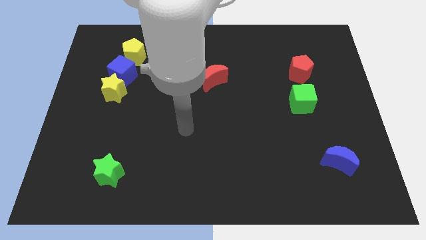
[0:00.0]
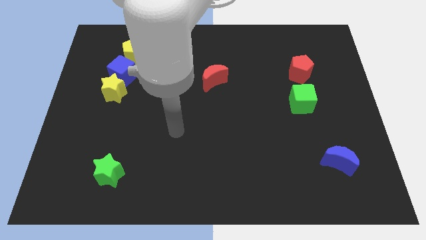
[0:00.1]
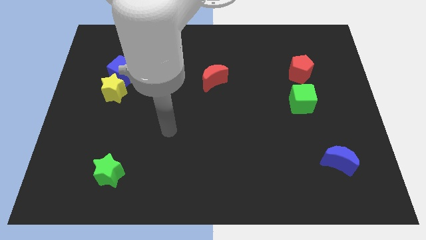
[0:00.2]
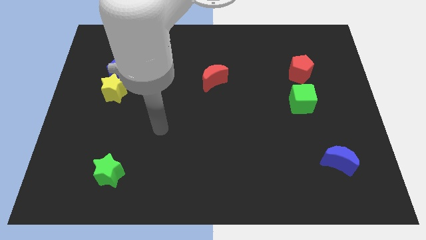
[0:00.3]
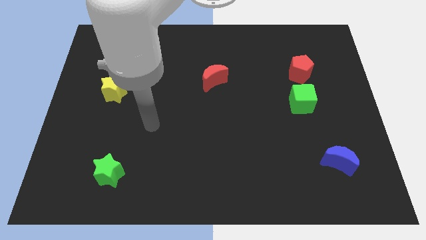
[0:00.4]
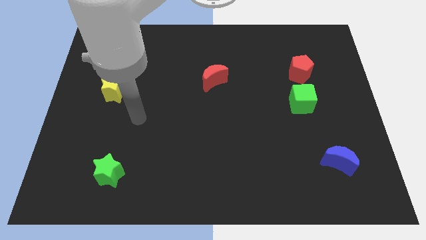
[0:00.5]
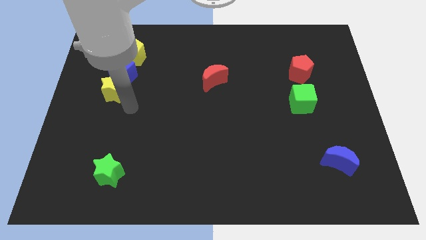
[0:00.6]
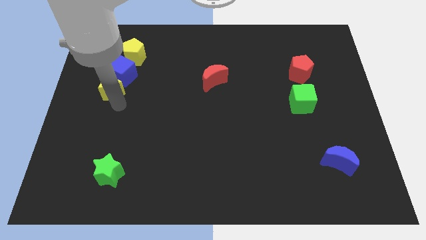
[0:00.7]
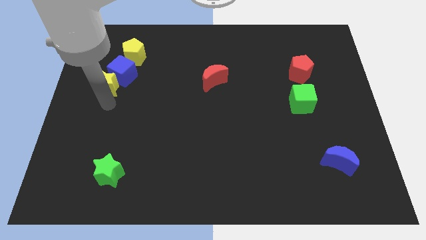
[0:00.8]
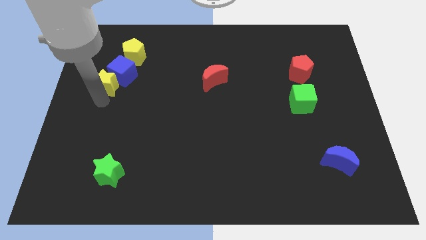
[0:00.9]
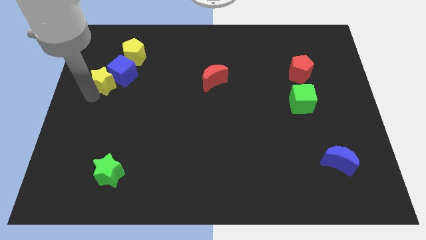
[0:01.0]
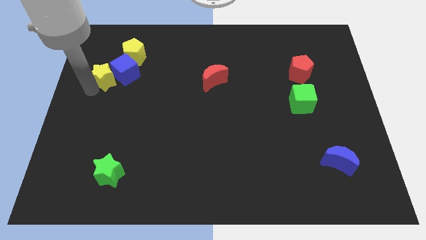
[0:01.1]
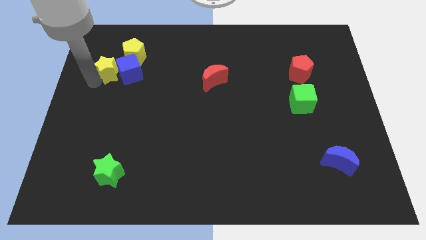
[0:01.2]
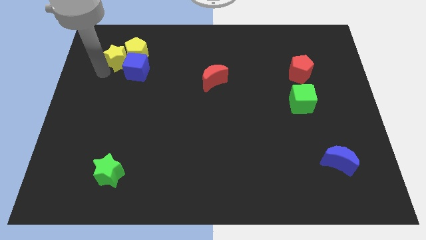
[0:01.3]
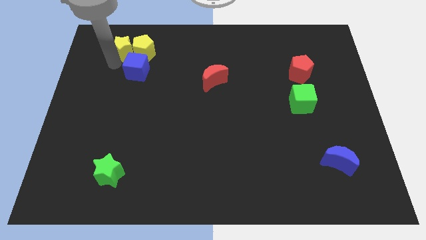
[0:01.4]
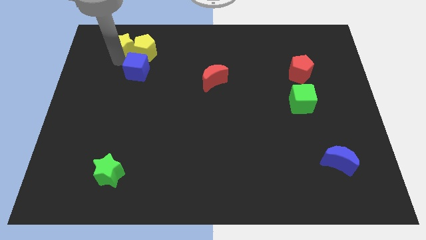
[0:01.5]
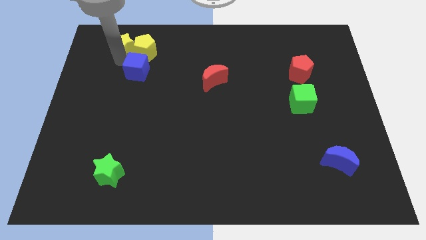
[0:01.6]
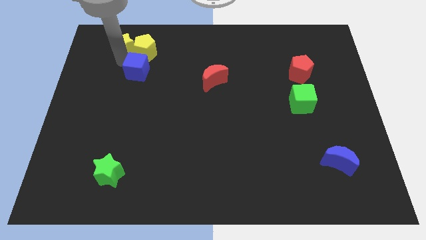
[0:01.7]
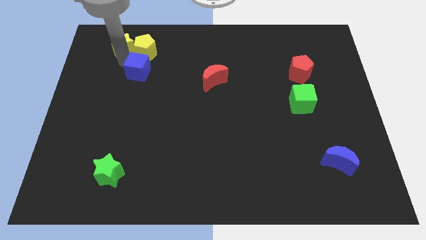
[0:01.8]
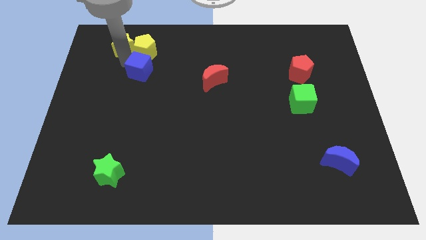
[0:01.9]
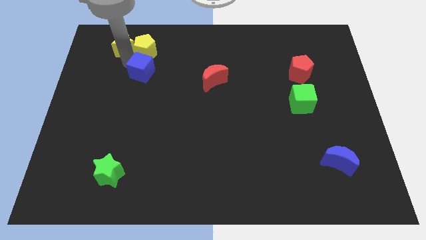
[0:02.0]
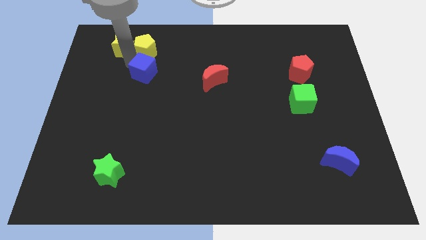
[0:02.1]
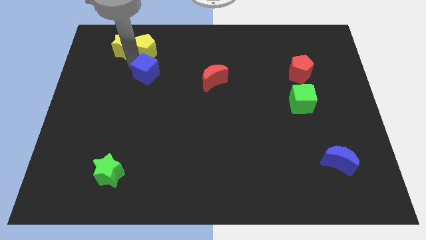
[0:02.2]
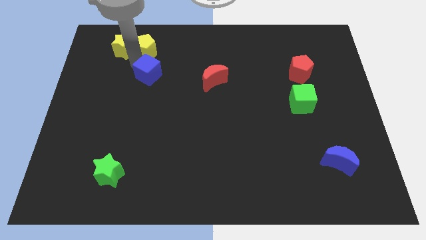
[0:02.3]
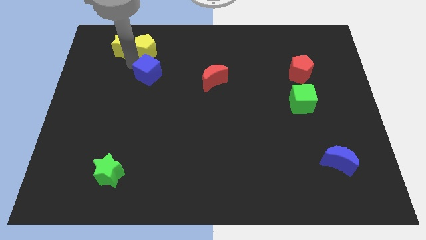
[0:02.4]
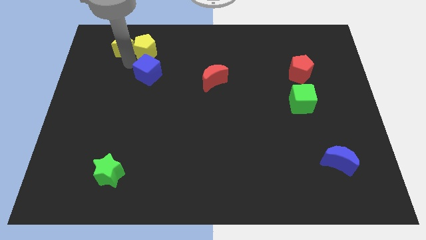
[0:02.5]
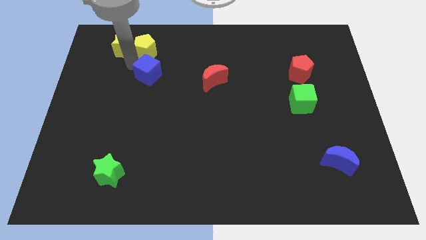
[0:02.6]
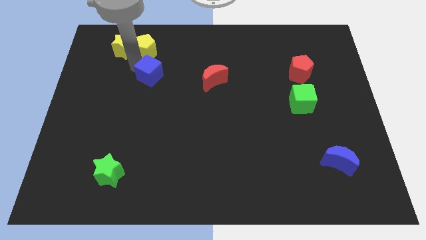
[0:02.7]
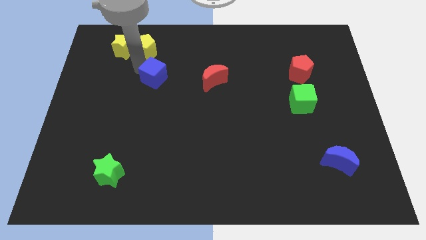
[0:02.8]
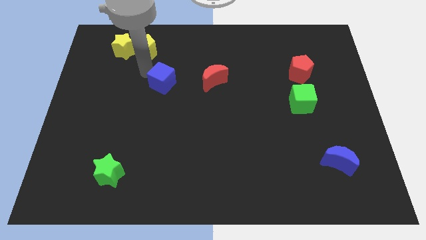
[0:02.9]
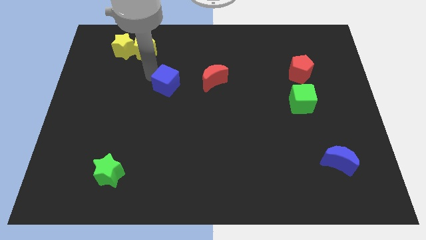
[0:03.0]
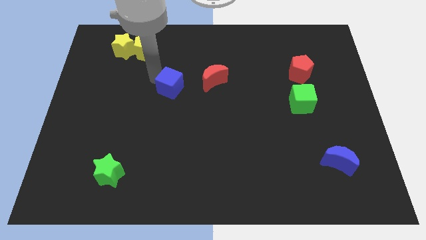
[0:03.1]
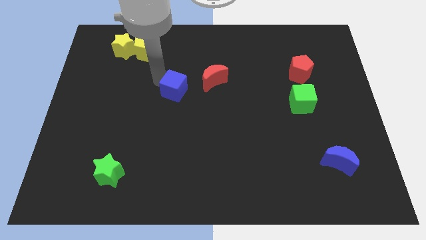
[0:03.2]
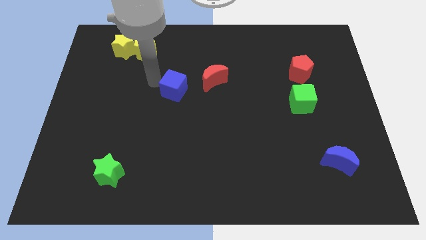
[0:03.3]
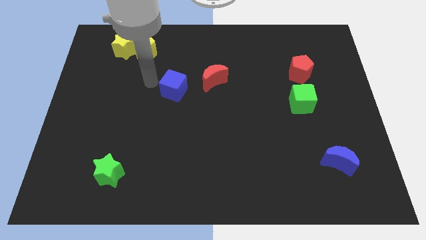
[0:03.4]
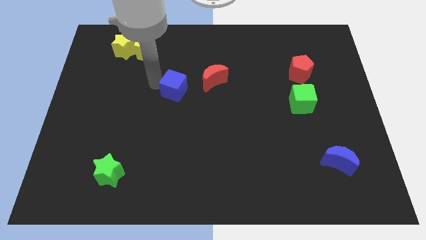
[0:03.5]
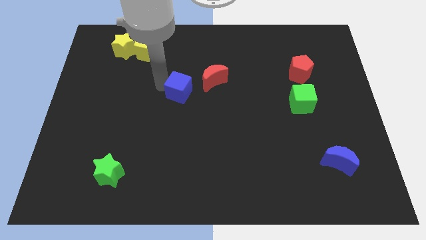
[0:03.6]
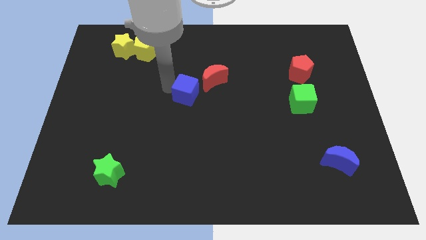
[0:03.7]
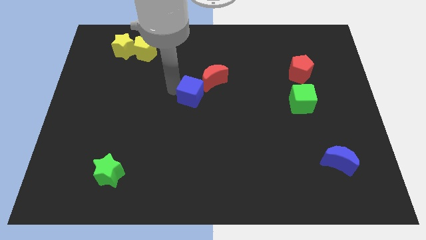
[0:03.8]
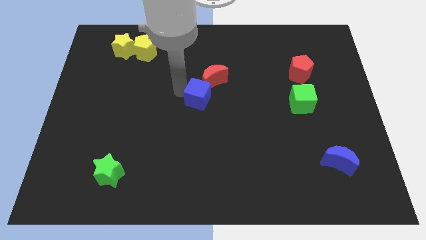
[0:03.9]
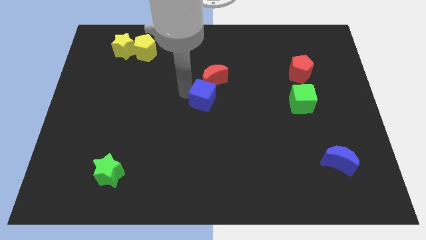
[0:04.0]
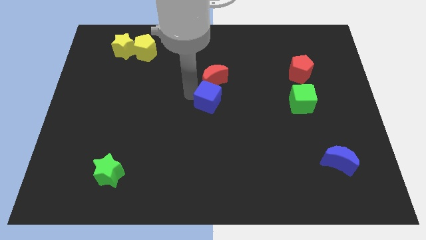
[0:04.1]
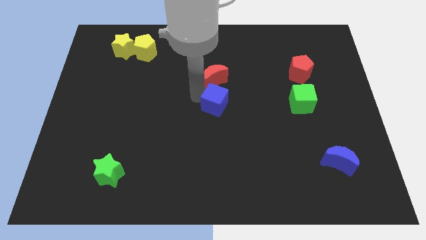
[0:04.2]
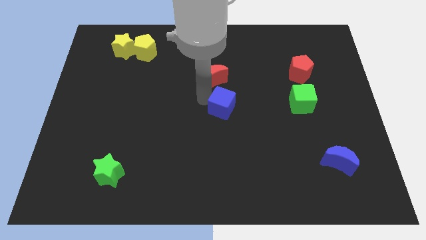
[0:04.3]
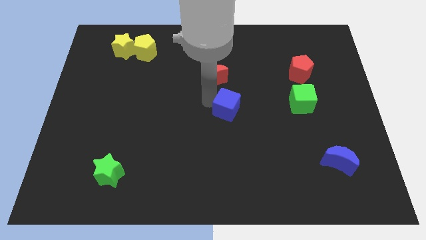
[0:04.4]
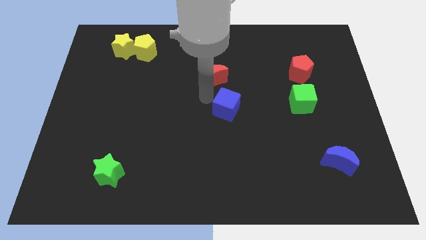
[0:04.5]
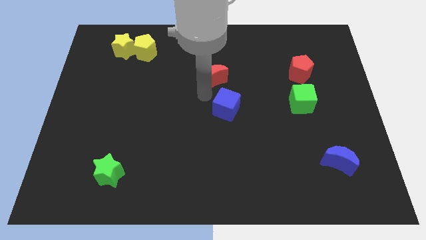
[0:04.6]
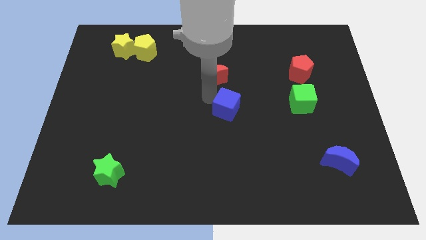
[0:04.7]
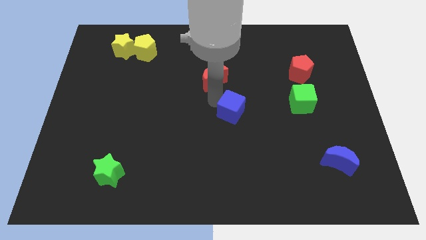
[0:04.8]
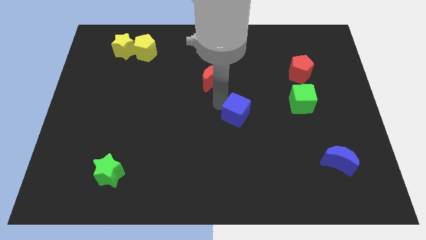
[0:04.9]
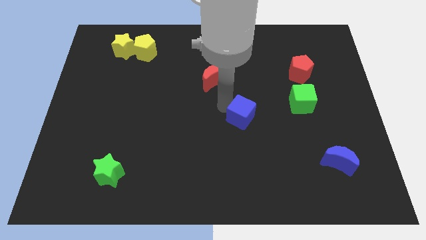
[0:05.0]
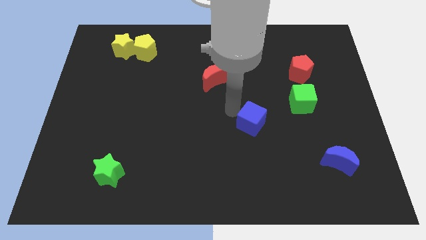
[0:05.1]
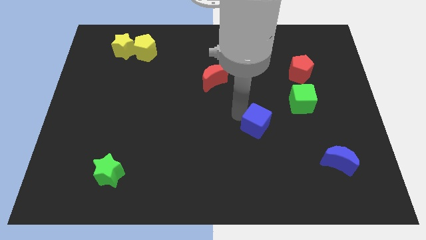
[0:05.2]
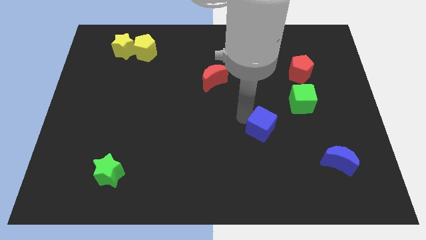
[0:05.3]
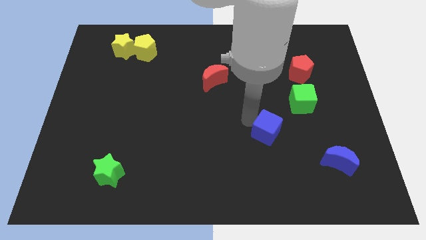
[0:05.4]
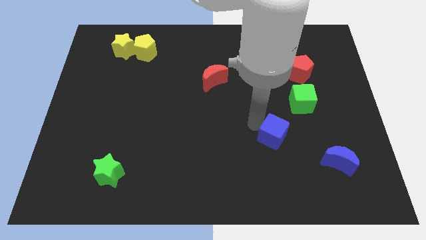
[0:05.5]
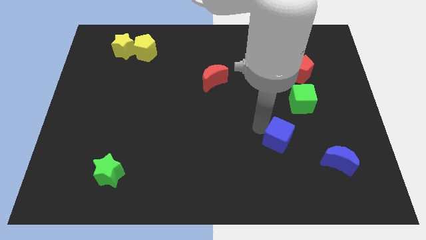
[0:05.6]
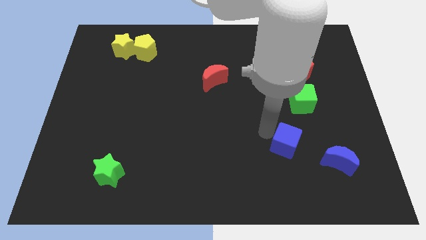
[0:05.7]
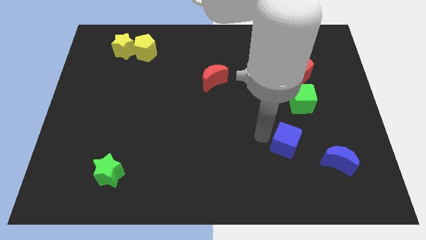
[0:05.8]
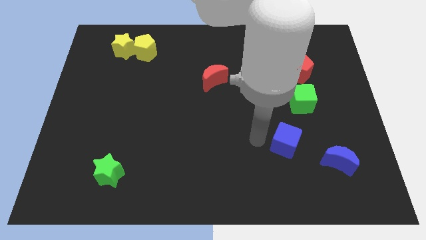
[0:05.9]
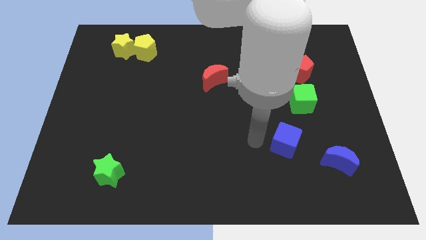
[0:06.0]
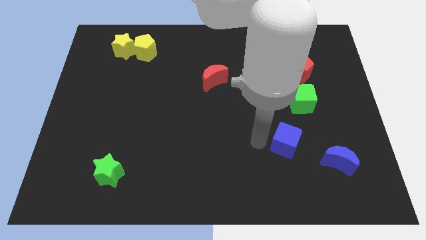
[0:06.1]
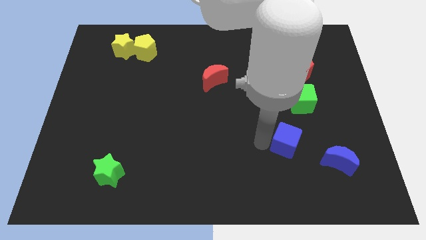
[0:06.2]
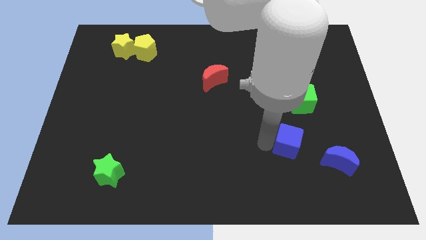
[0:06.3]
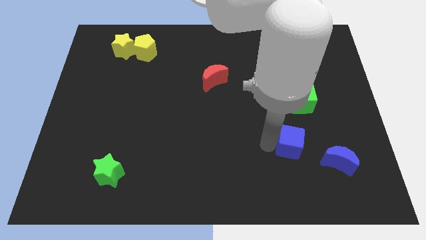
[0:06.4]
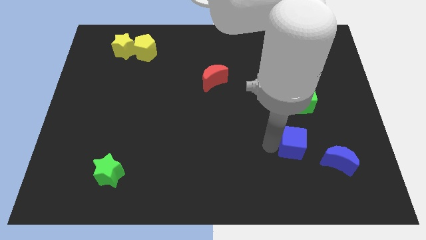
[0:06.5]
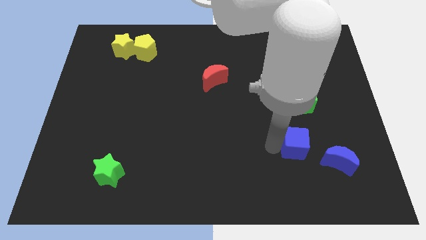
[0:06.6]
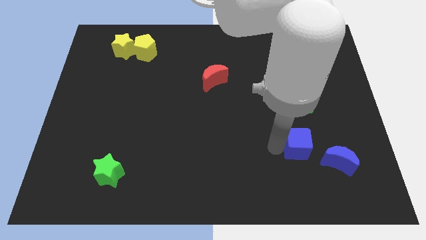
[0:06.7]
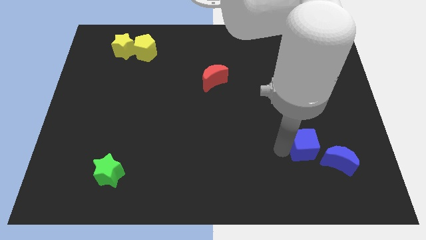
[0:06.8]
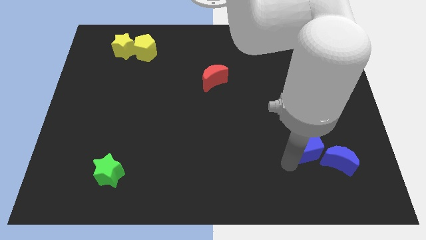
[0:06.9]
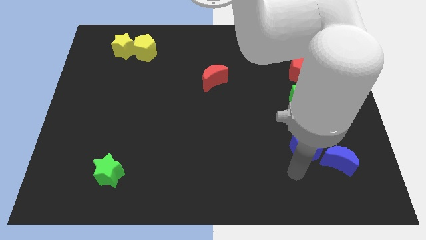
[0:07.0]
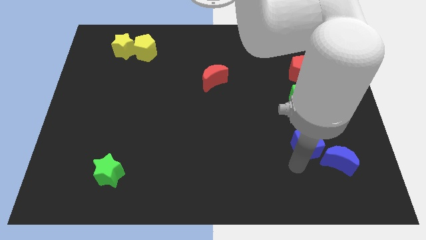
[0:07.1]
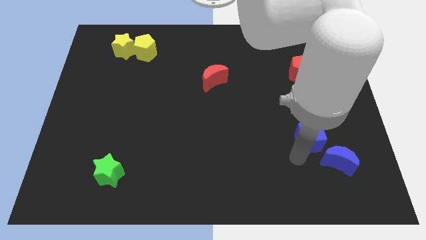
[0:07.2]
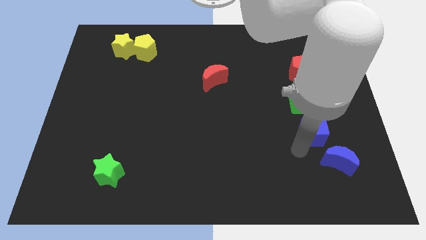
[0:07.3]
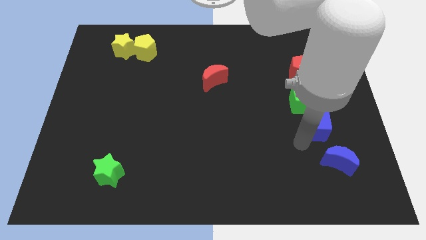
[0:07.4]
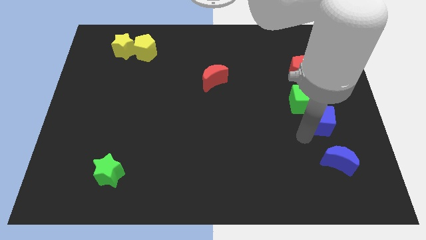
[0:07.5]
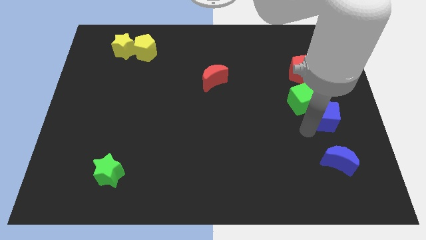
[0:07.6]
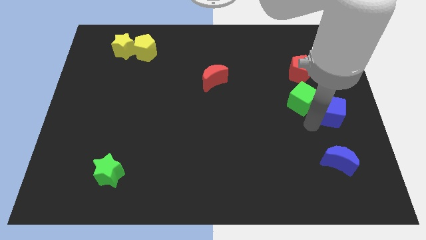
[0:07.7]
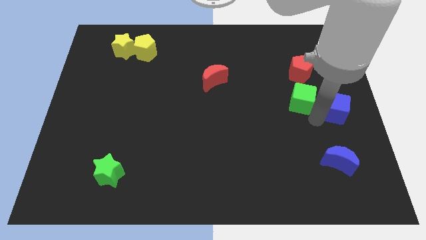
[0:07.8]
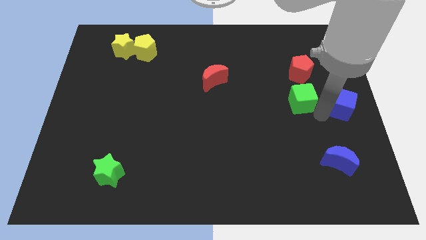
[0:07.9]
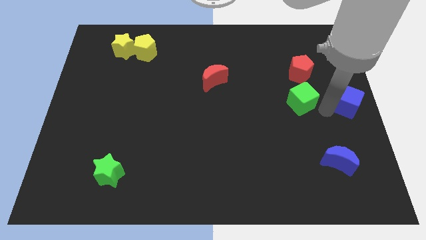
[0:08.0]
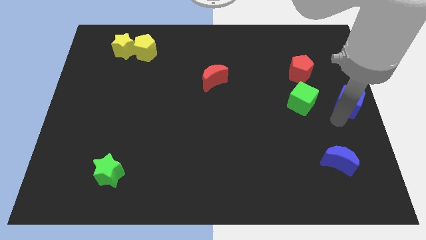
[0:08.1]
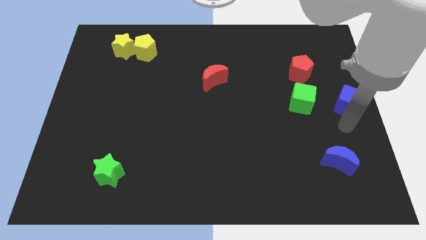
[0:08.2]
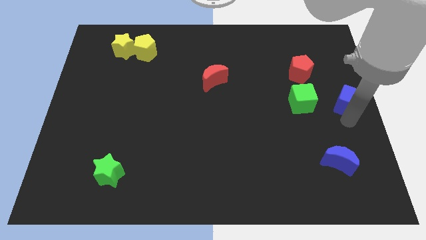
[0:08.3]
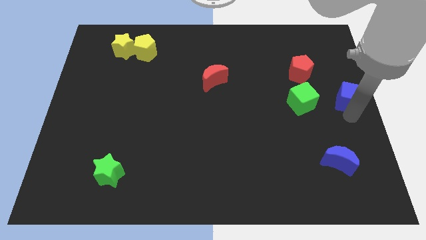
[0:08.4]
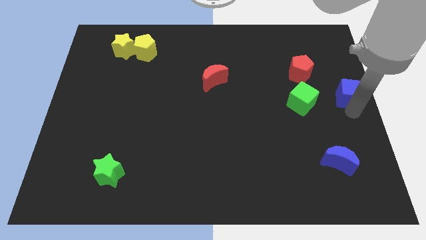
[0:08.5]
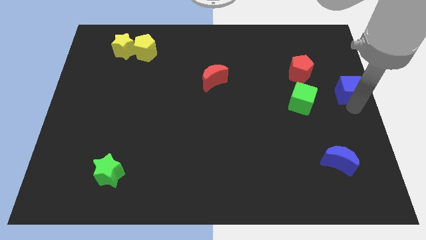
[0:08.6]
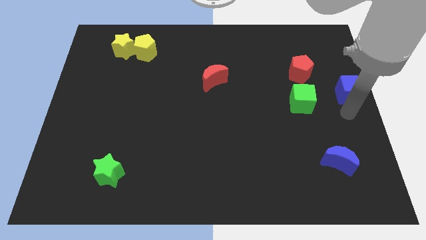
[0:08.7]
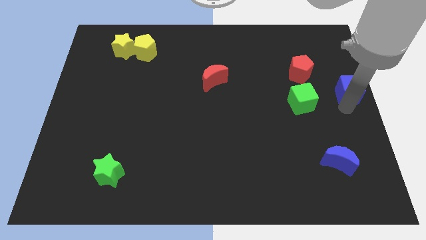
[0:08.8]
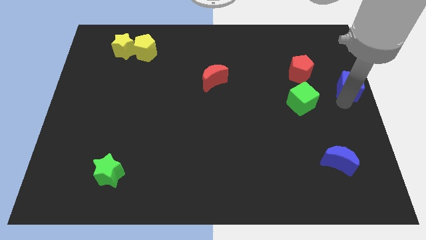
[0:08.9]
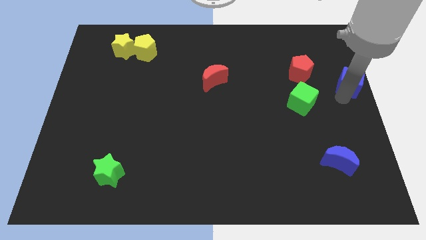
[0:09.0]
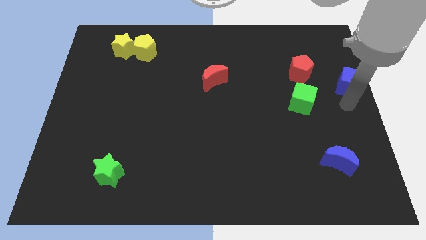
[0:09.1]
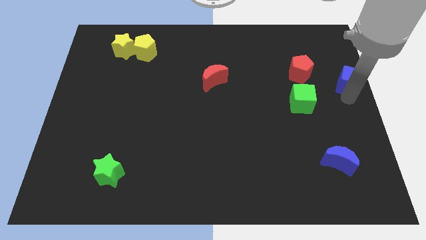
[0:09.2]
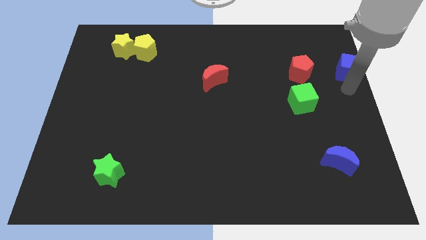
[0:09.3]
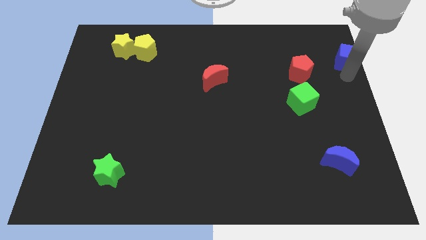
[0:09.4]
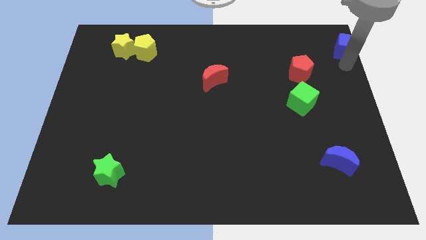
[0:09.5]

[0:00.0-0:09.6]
move the blue cube to the top right
